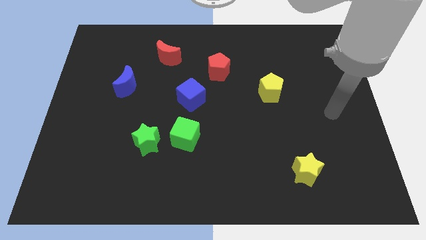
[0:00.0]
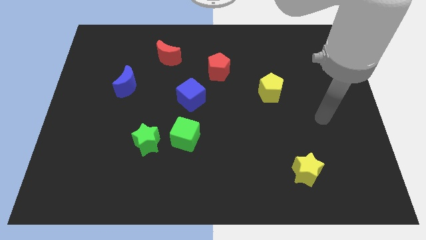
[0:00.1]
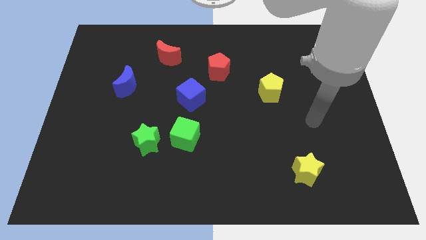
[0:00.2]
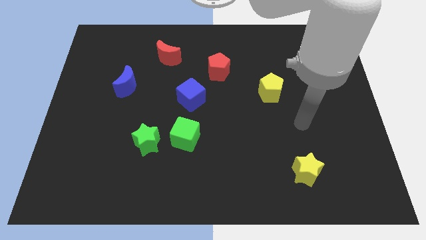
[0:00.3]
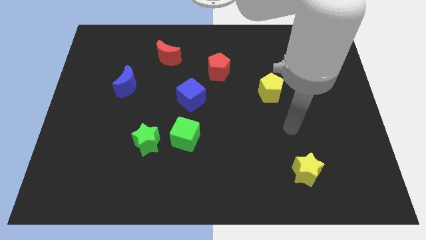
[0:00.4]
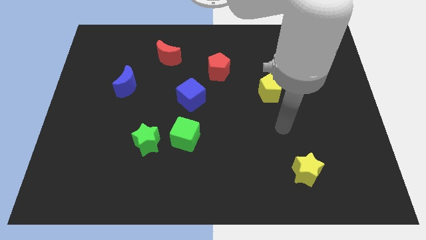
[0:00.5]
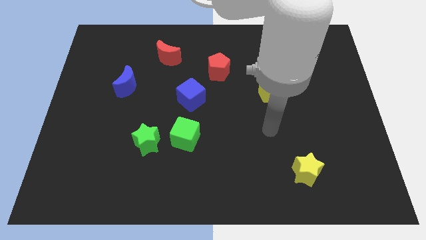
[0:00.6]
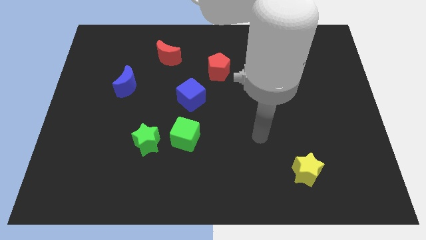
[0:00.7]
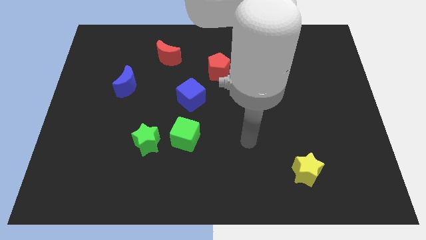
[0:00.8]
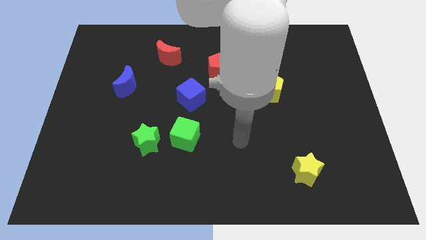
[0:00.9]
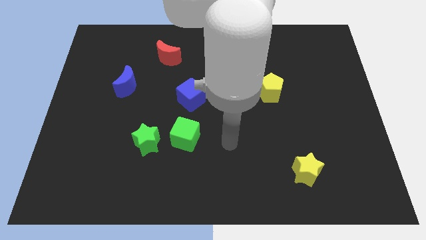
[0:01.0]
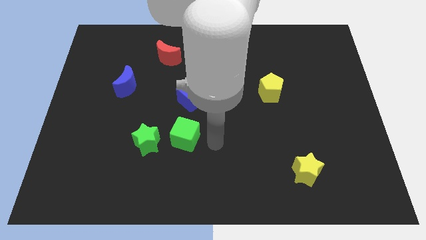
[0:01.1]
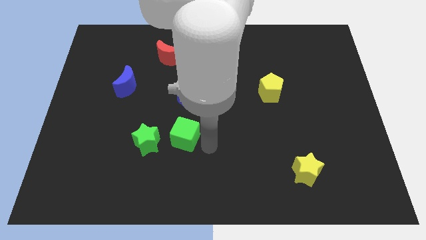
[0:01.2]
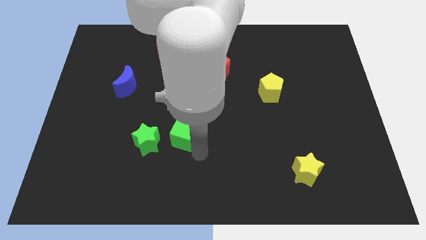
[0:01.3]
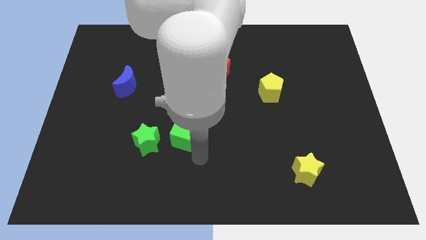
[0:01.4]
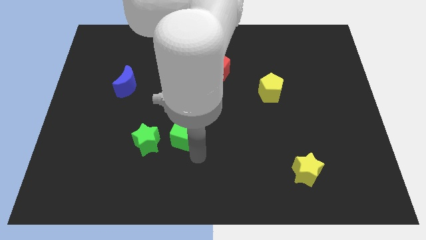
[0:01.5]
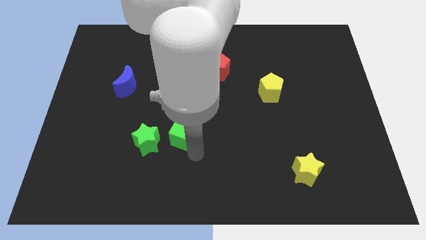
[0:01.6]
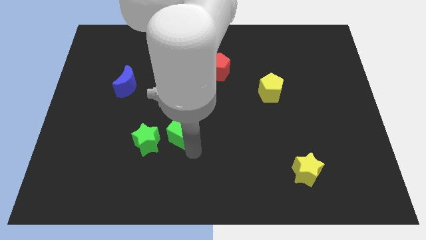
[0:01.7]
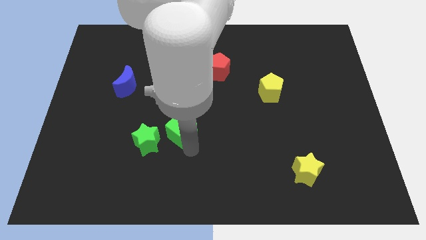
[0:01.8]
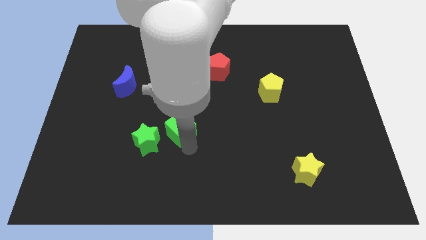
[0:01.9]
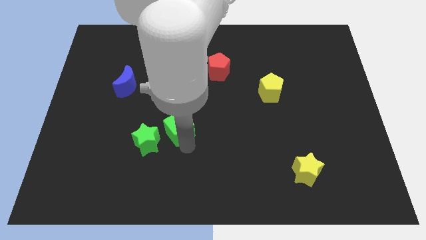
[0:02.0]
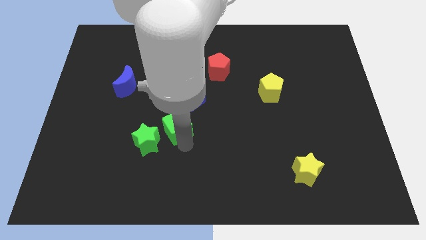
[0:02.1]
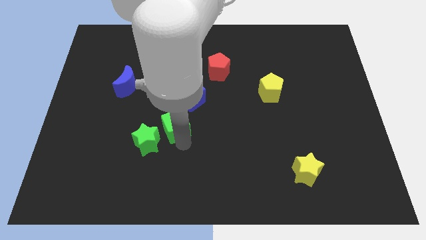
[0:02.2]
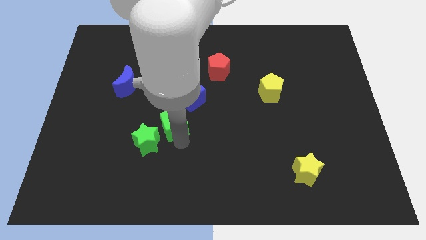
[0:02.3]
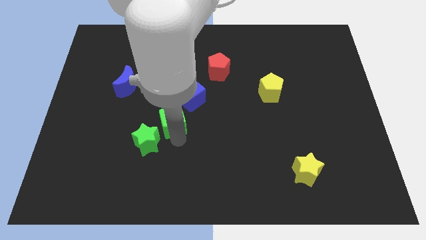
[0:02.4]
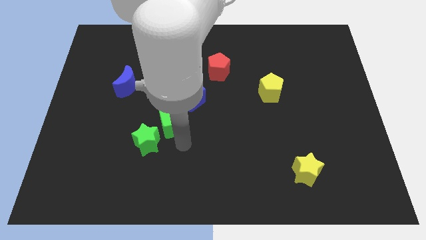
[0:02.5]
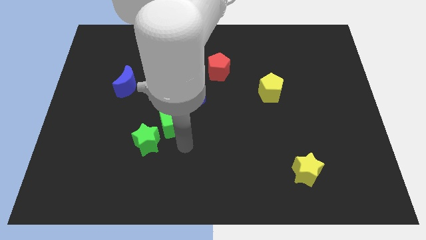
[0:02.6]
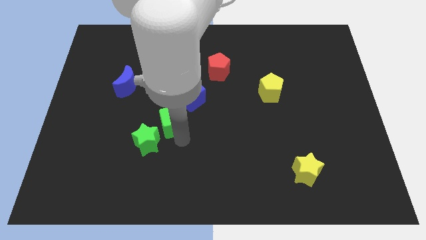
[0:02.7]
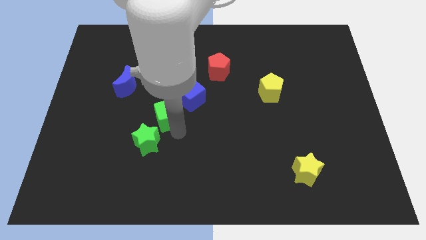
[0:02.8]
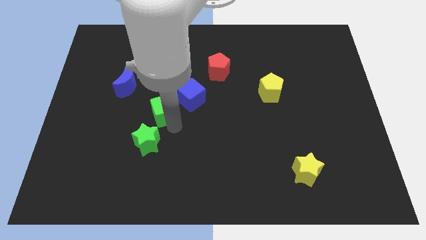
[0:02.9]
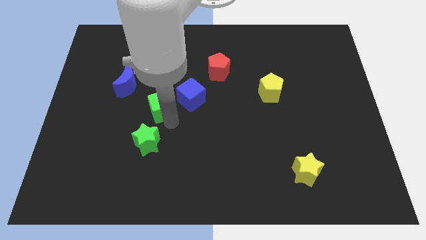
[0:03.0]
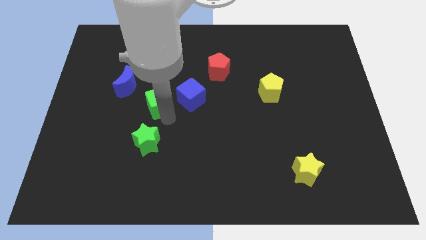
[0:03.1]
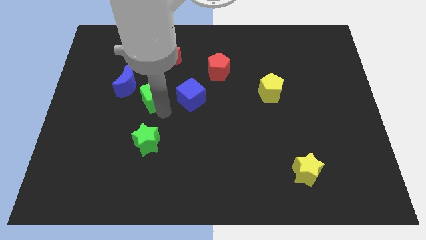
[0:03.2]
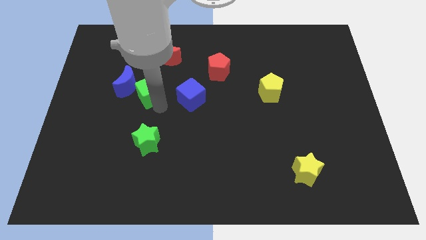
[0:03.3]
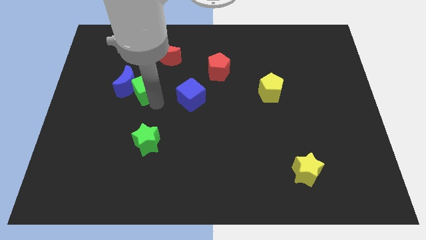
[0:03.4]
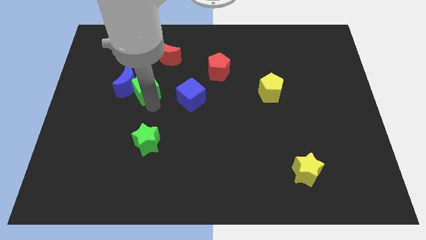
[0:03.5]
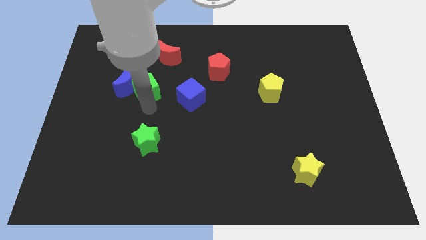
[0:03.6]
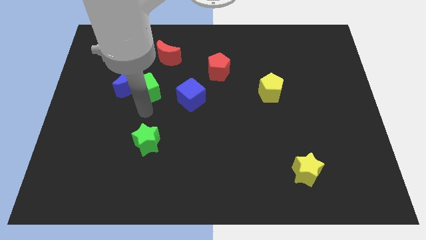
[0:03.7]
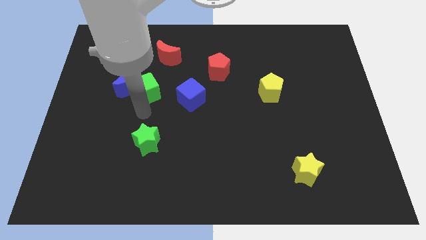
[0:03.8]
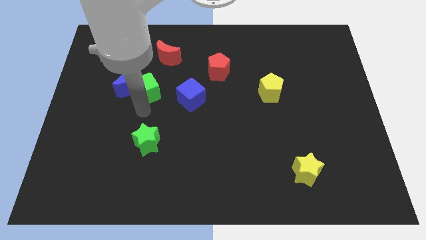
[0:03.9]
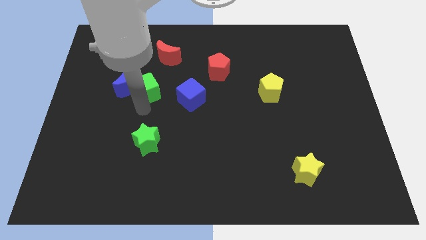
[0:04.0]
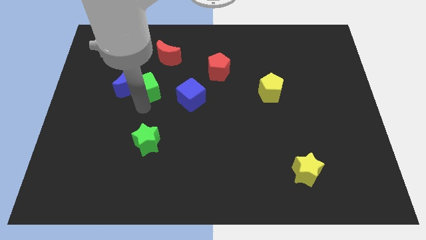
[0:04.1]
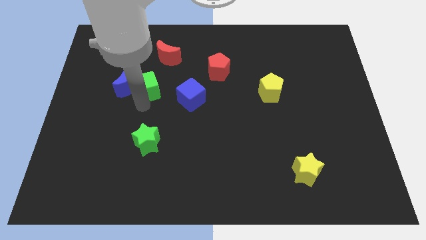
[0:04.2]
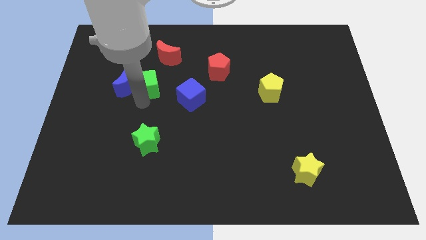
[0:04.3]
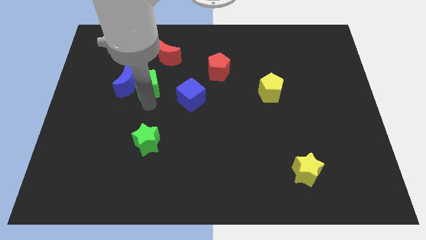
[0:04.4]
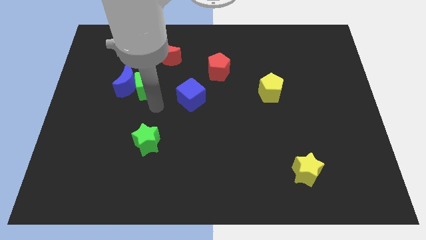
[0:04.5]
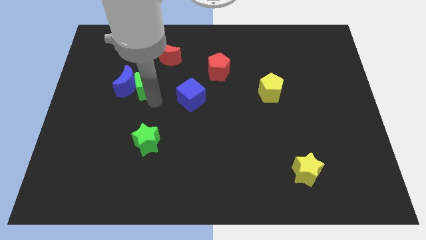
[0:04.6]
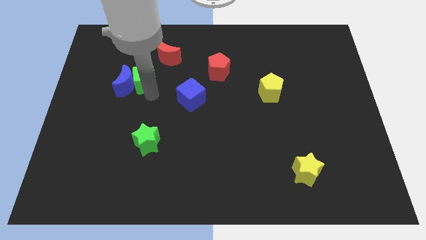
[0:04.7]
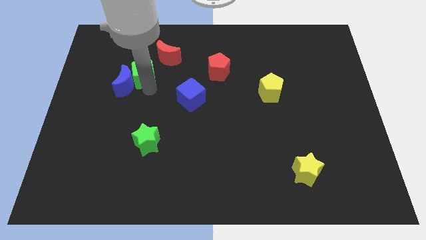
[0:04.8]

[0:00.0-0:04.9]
move the green cube to the top of the blue moon

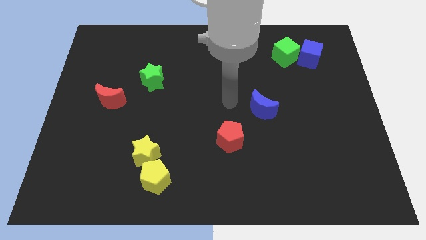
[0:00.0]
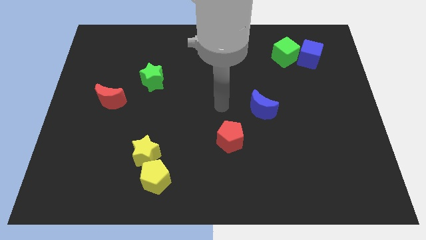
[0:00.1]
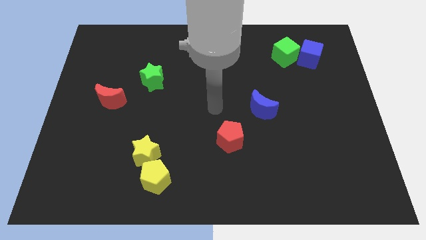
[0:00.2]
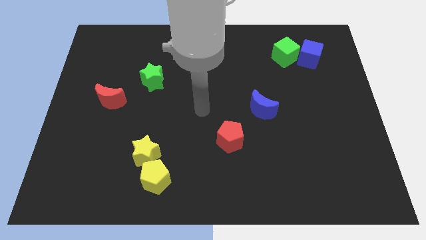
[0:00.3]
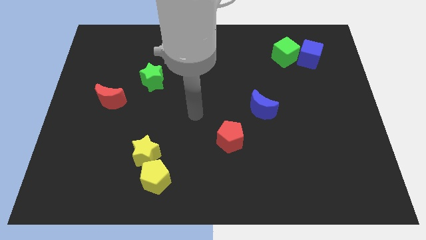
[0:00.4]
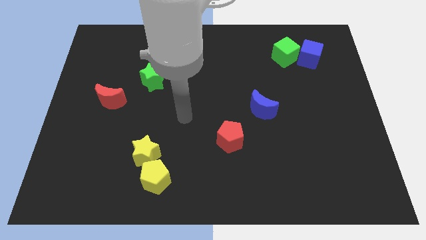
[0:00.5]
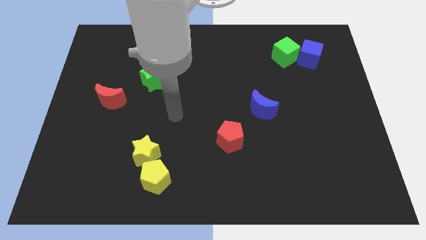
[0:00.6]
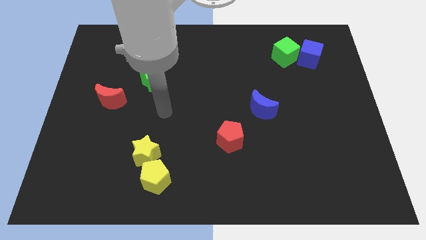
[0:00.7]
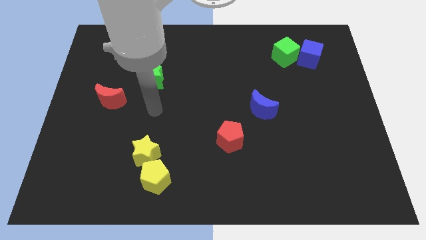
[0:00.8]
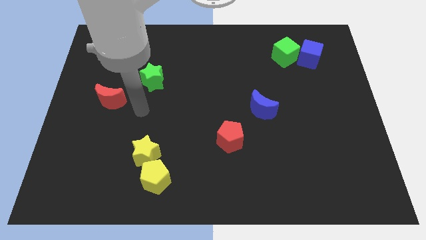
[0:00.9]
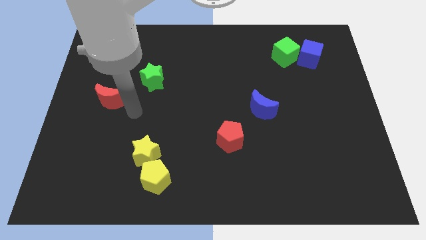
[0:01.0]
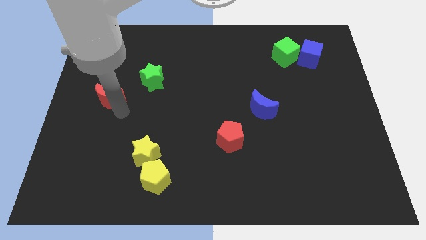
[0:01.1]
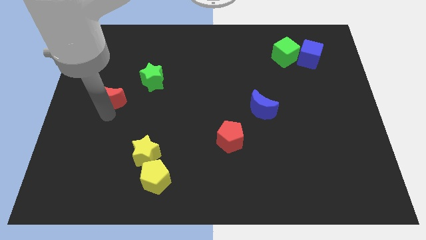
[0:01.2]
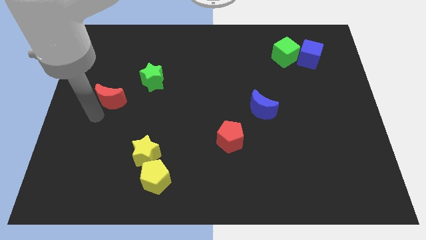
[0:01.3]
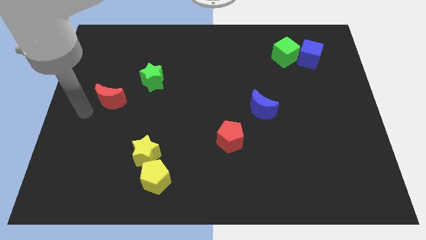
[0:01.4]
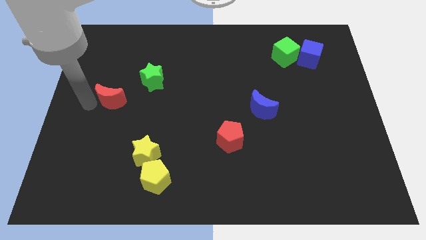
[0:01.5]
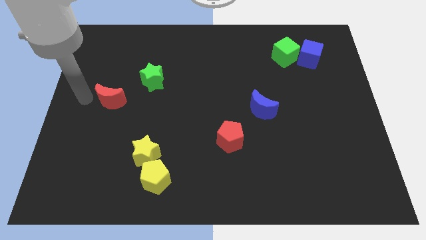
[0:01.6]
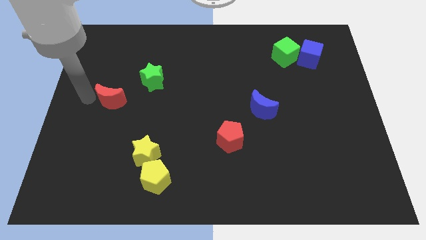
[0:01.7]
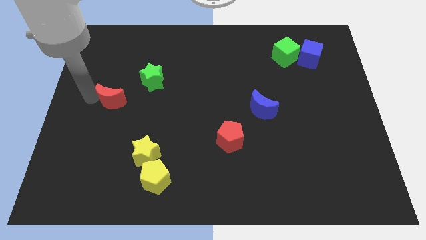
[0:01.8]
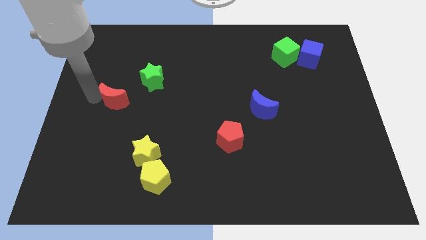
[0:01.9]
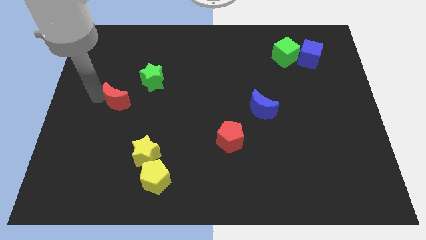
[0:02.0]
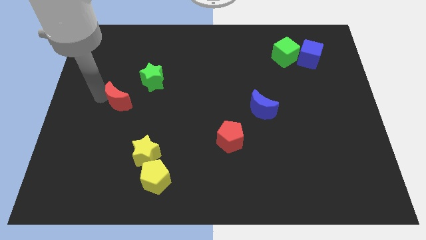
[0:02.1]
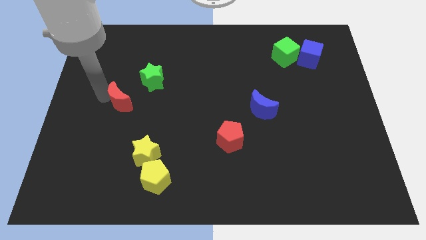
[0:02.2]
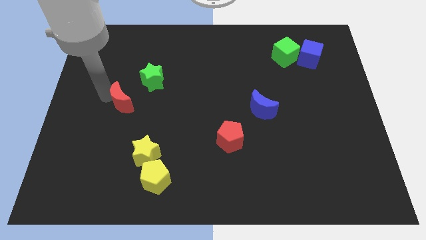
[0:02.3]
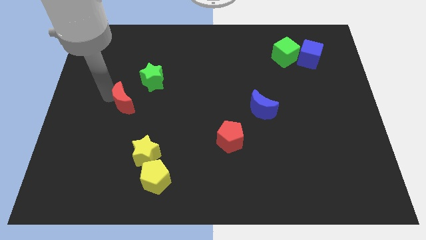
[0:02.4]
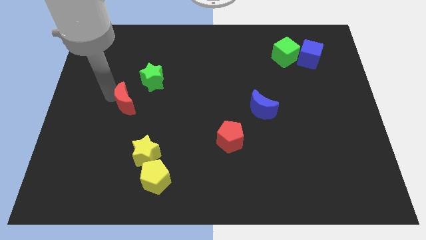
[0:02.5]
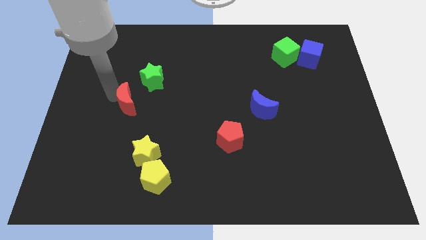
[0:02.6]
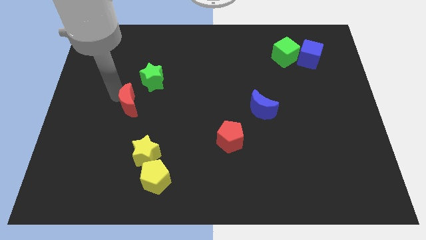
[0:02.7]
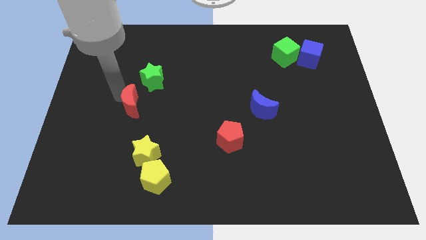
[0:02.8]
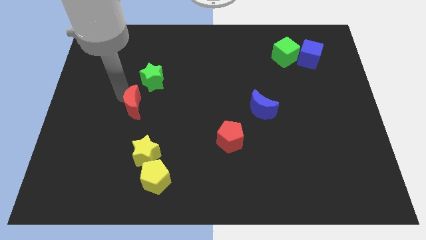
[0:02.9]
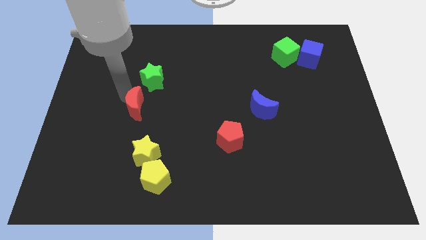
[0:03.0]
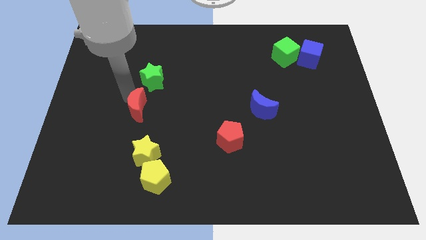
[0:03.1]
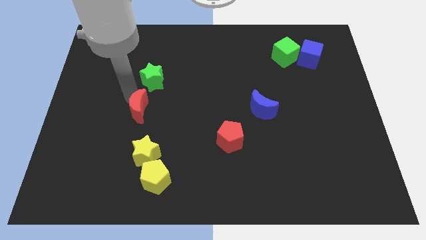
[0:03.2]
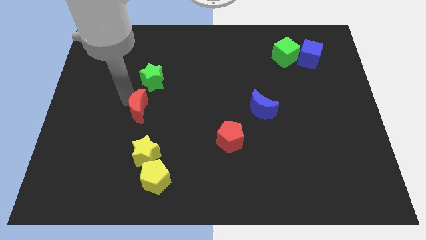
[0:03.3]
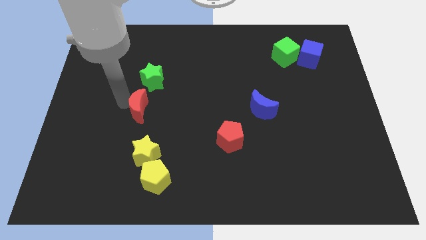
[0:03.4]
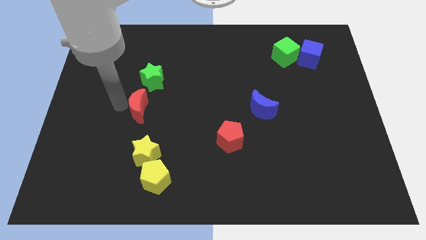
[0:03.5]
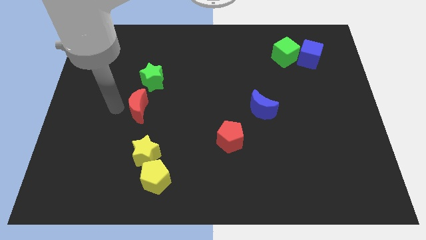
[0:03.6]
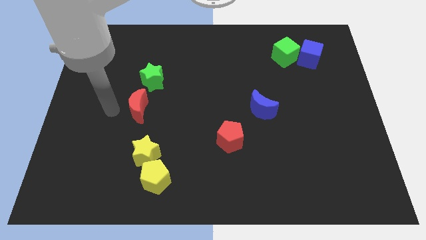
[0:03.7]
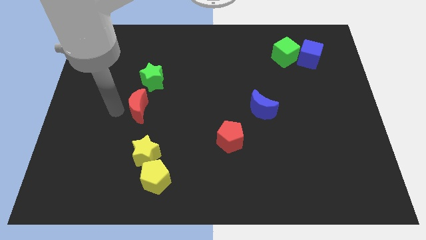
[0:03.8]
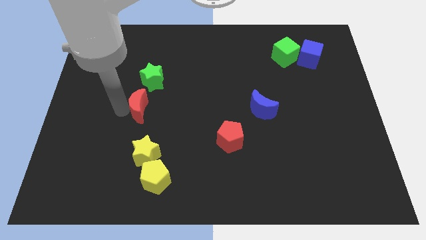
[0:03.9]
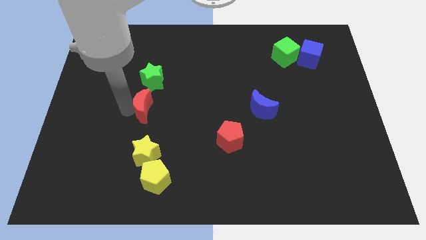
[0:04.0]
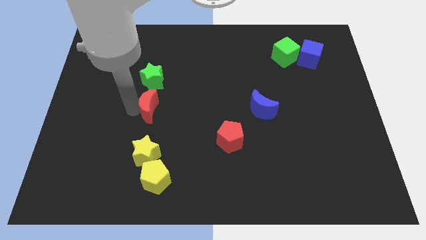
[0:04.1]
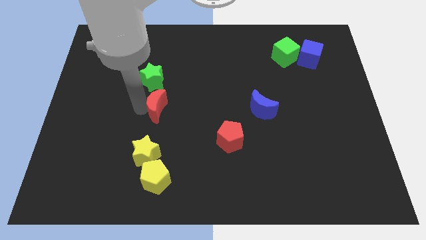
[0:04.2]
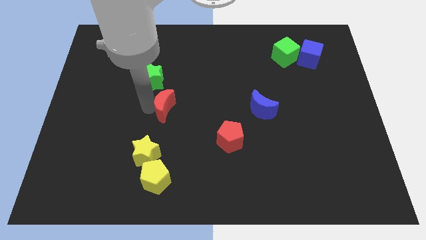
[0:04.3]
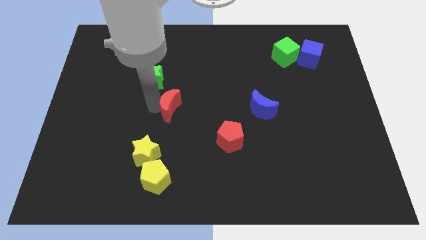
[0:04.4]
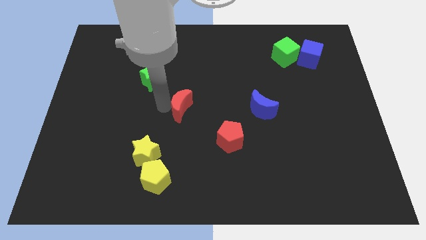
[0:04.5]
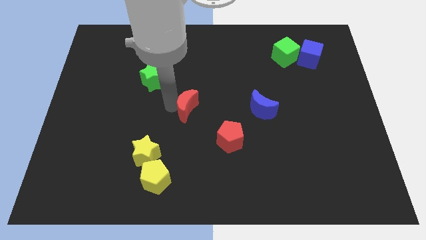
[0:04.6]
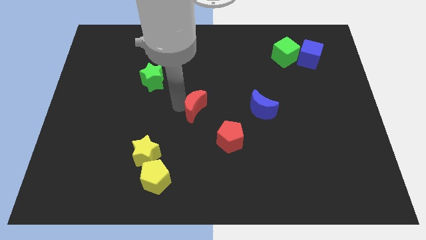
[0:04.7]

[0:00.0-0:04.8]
slide the red moon diagonally up and to the left of the red pentagon
